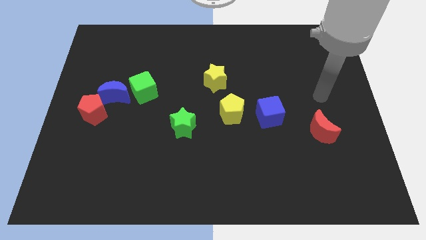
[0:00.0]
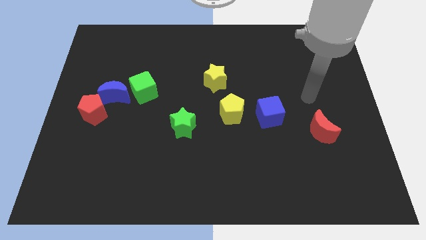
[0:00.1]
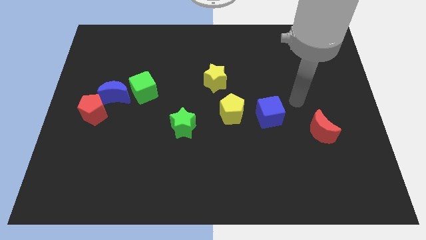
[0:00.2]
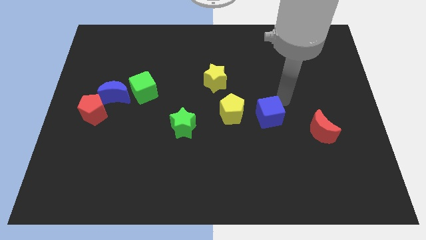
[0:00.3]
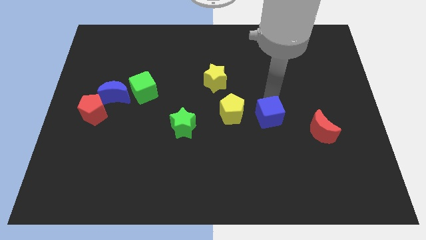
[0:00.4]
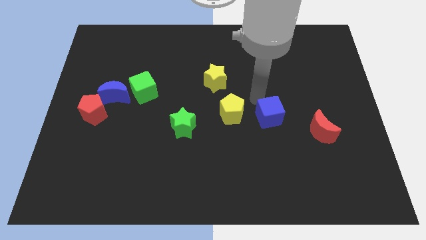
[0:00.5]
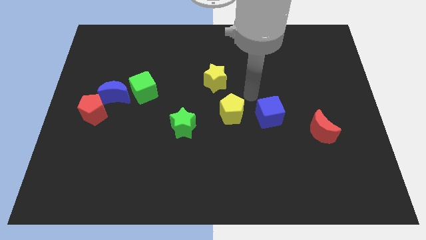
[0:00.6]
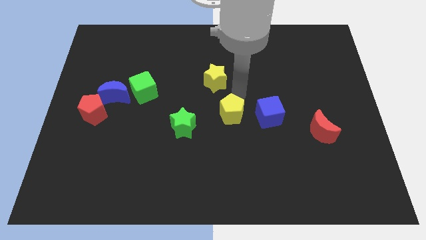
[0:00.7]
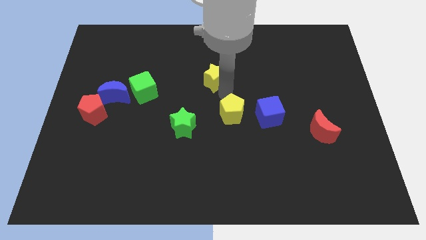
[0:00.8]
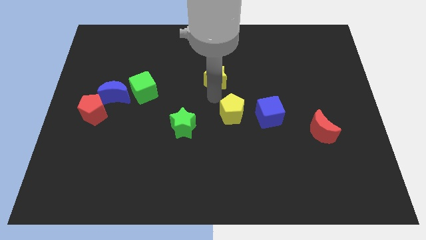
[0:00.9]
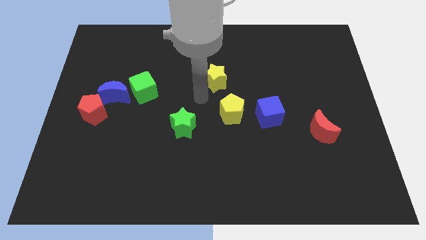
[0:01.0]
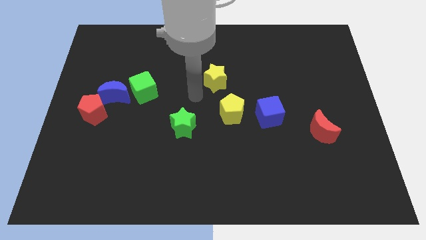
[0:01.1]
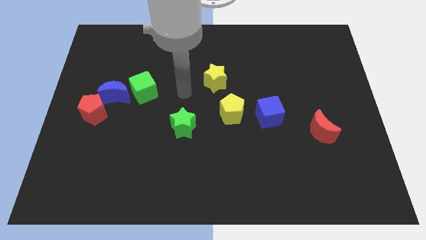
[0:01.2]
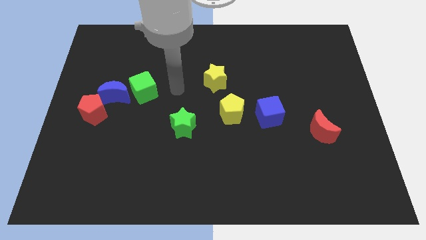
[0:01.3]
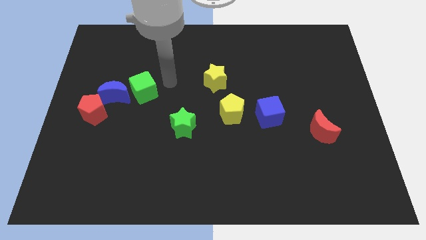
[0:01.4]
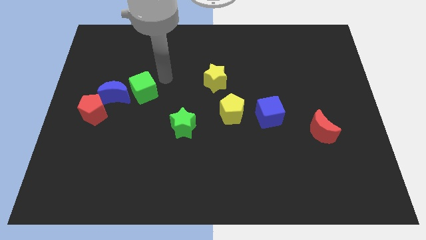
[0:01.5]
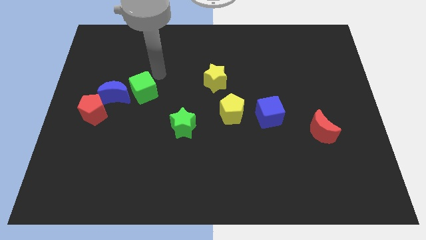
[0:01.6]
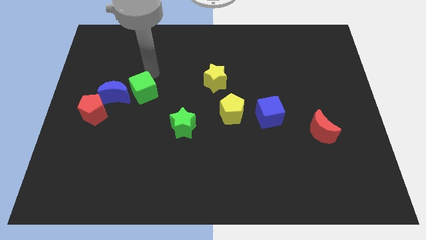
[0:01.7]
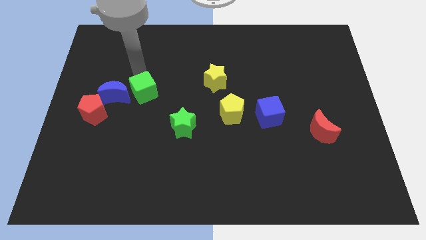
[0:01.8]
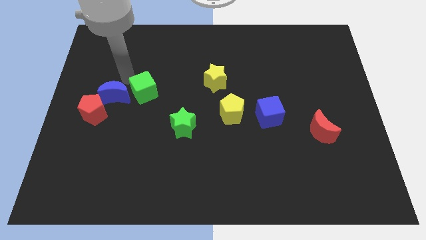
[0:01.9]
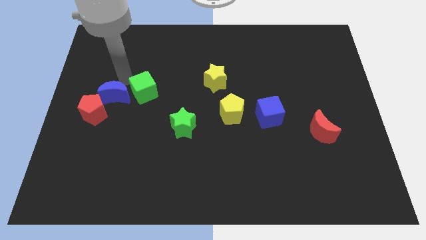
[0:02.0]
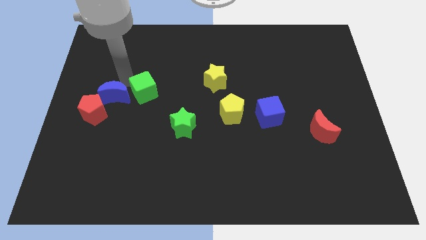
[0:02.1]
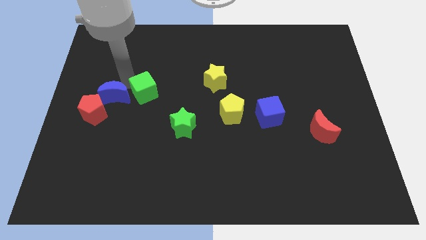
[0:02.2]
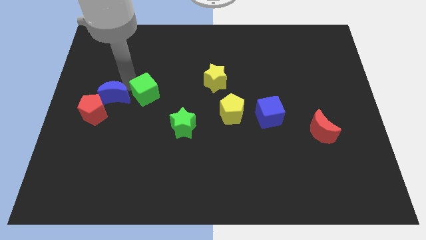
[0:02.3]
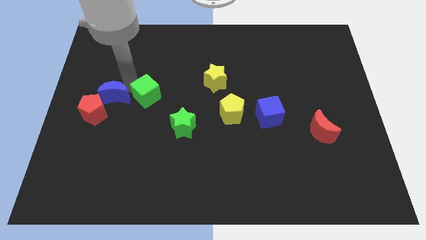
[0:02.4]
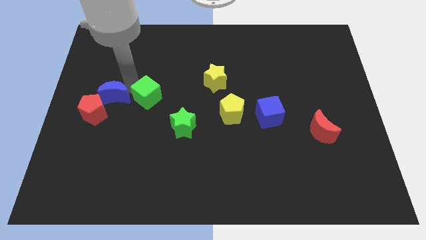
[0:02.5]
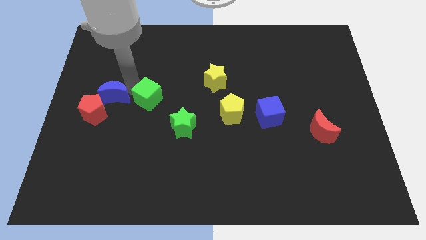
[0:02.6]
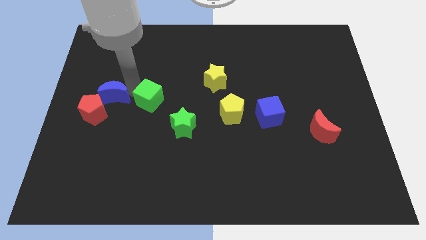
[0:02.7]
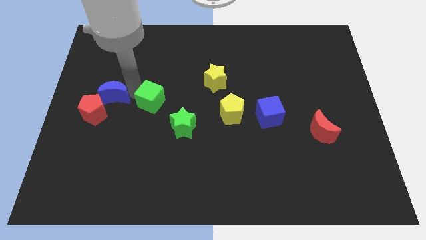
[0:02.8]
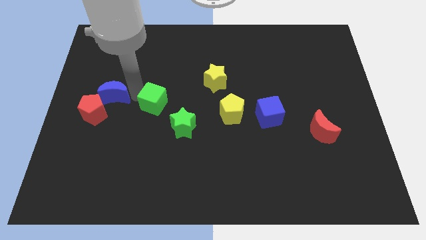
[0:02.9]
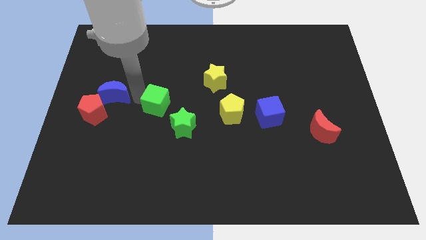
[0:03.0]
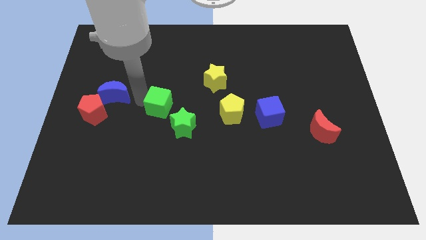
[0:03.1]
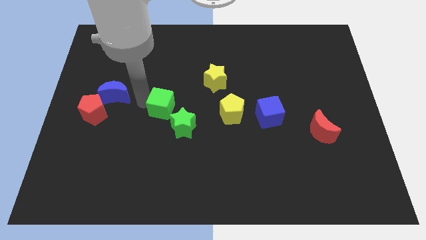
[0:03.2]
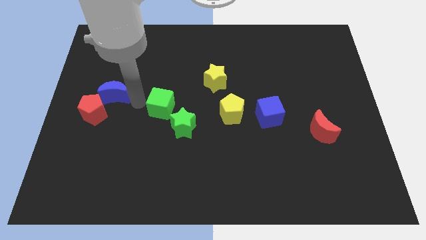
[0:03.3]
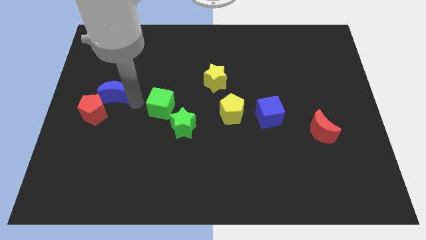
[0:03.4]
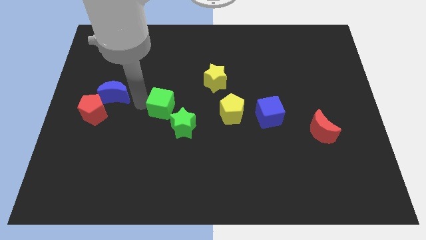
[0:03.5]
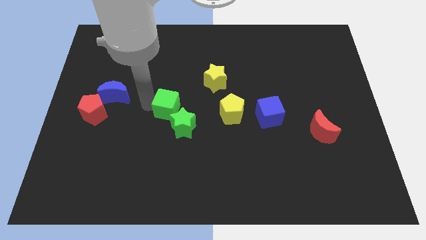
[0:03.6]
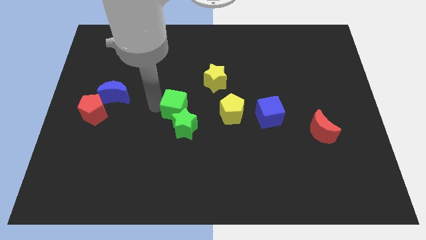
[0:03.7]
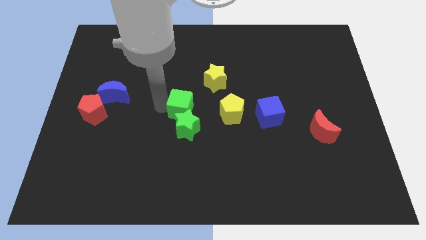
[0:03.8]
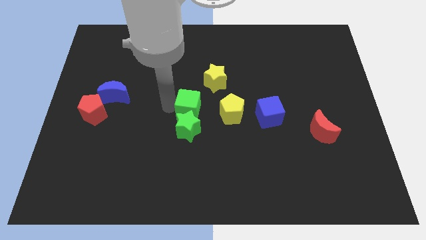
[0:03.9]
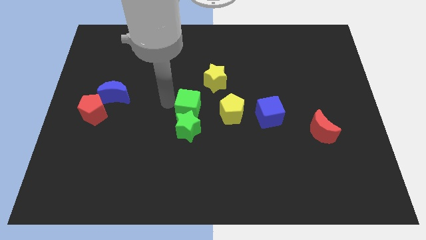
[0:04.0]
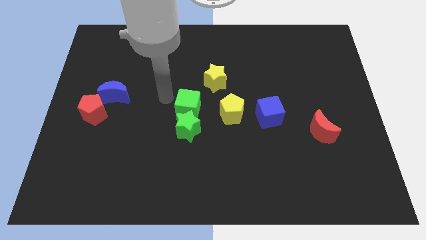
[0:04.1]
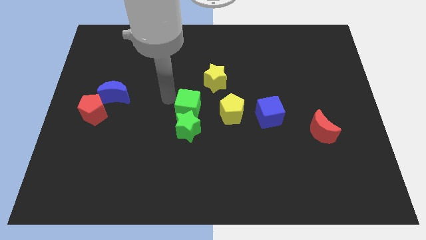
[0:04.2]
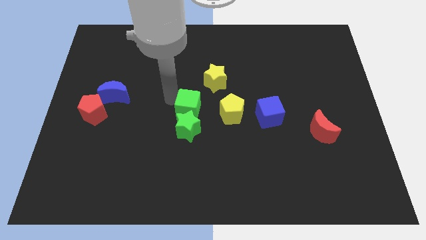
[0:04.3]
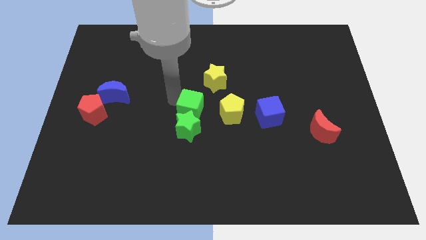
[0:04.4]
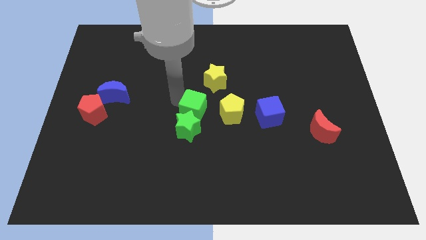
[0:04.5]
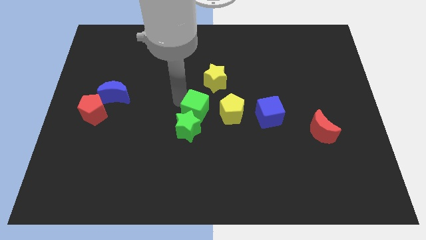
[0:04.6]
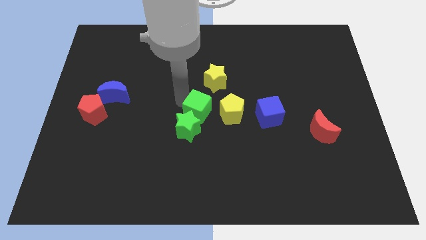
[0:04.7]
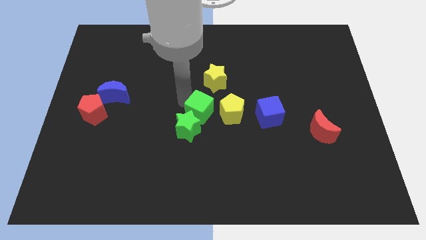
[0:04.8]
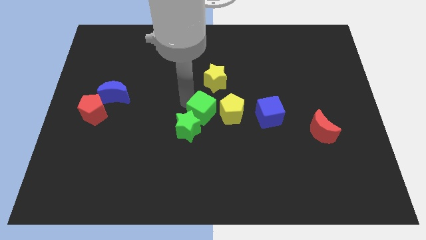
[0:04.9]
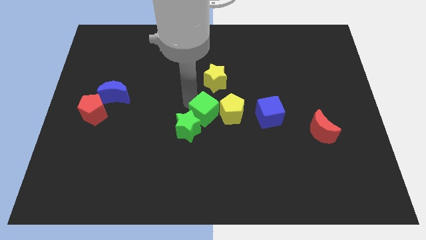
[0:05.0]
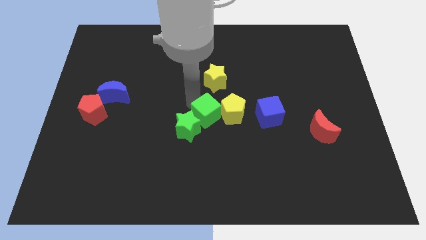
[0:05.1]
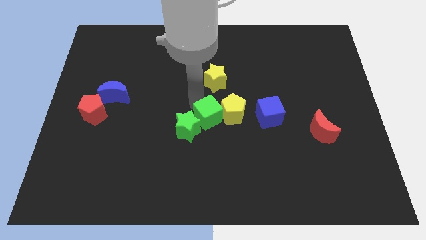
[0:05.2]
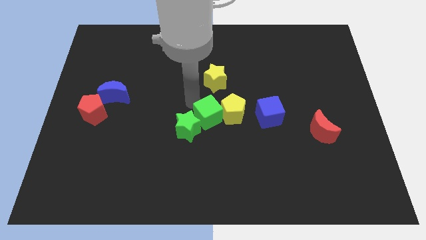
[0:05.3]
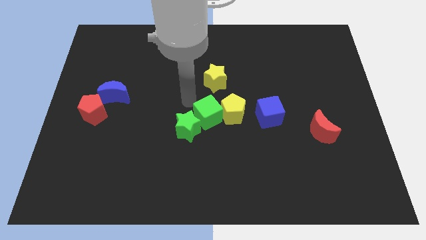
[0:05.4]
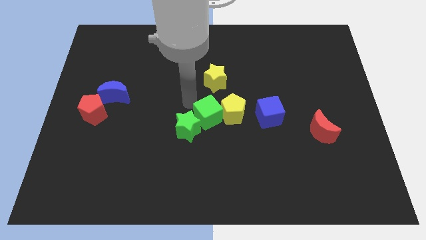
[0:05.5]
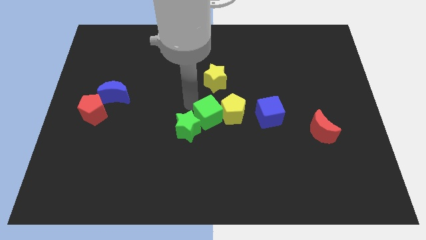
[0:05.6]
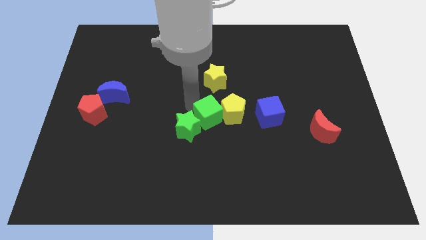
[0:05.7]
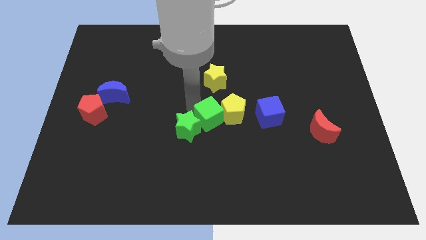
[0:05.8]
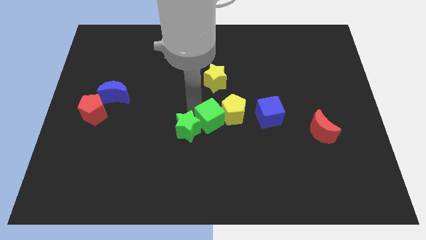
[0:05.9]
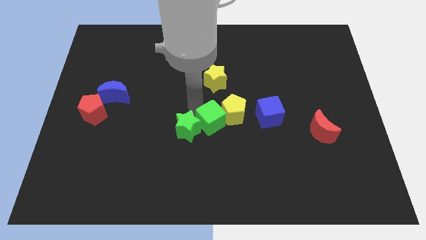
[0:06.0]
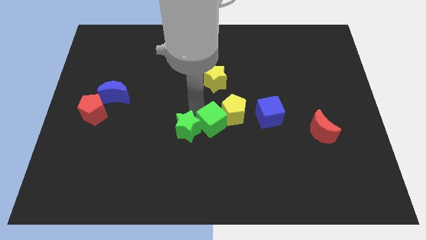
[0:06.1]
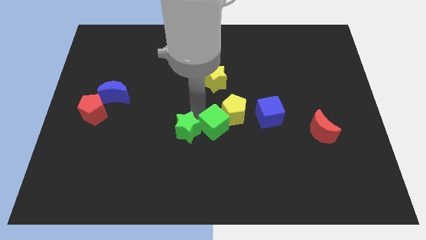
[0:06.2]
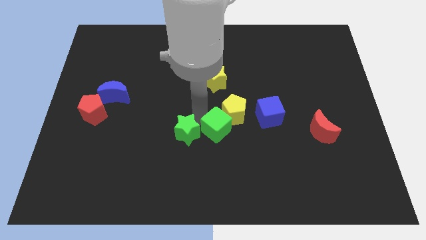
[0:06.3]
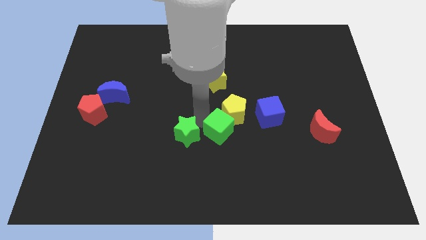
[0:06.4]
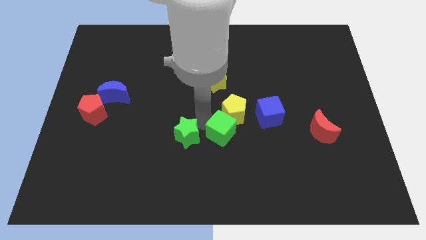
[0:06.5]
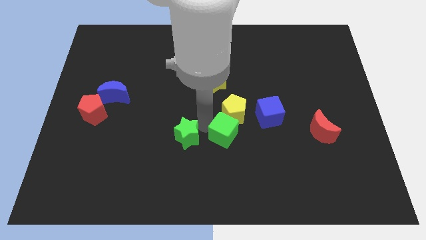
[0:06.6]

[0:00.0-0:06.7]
move the green cube to the bottom left side of the blue cube
